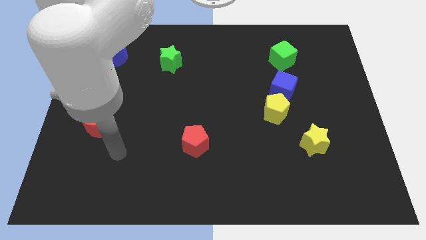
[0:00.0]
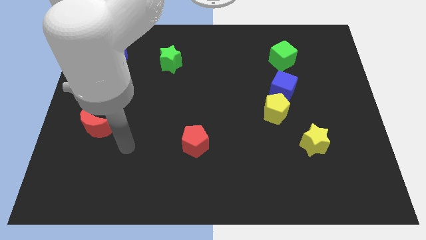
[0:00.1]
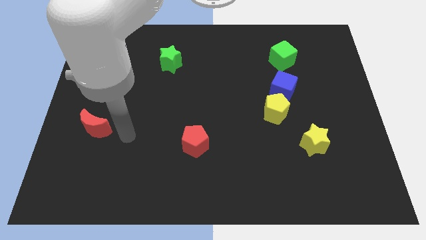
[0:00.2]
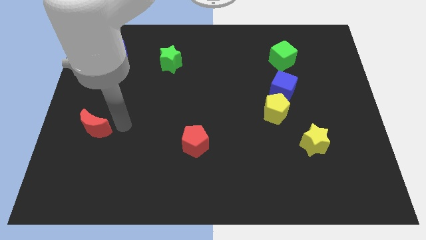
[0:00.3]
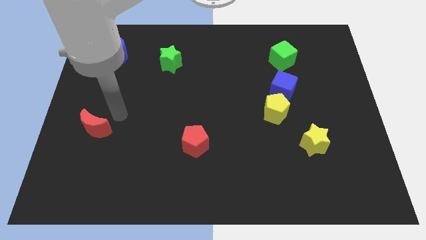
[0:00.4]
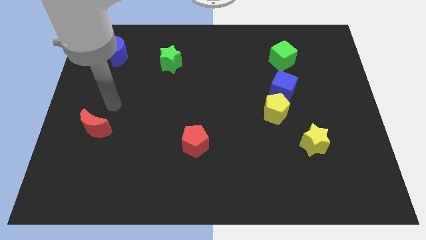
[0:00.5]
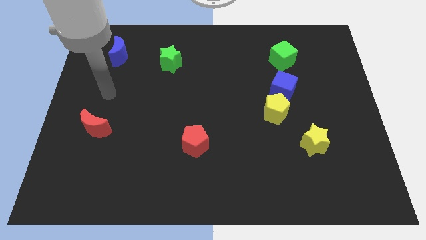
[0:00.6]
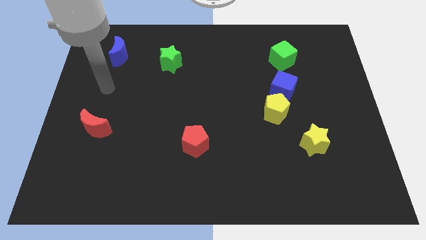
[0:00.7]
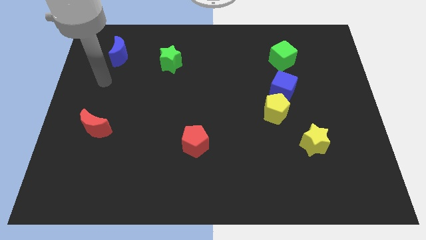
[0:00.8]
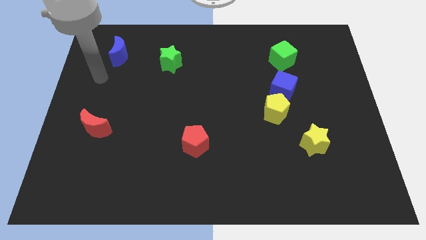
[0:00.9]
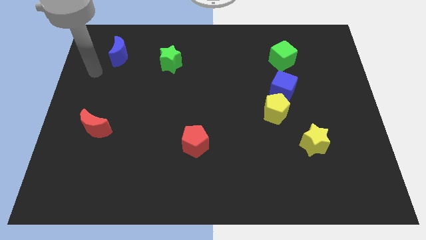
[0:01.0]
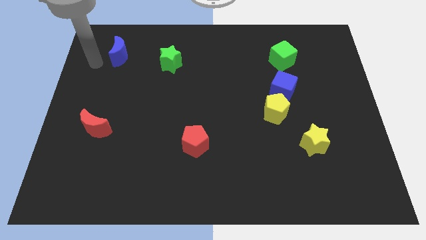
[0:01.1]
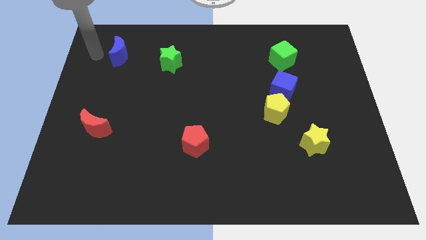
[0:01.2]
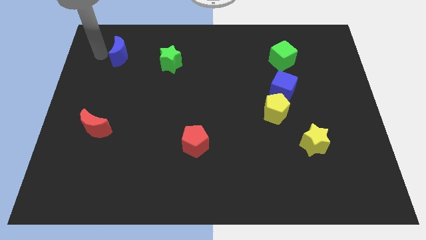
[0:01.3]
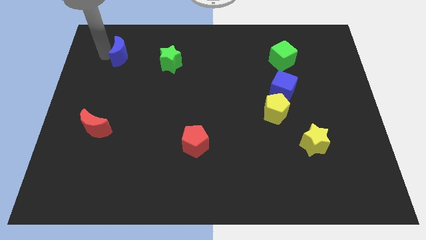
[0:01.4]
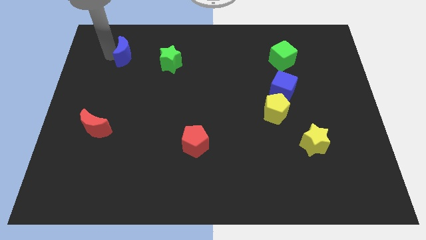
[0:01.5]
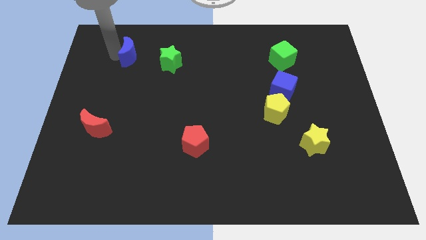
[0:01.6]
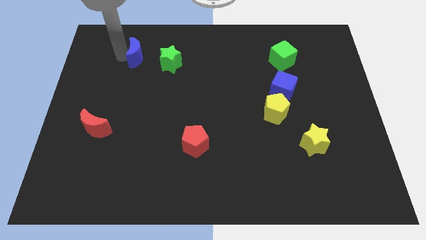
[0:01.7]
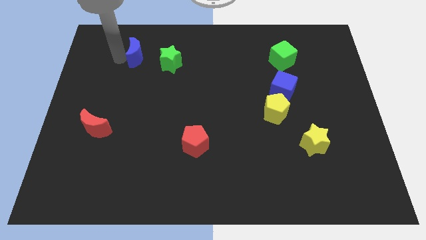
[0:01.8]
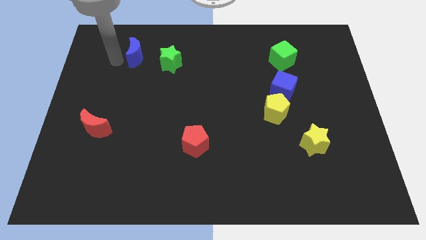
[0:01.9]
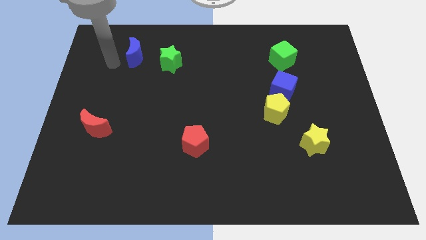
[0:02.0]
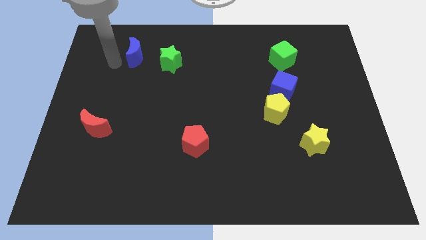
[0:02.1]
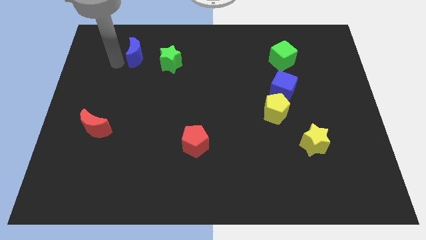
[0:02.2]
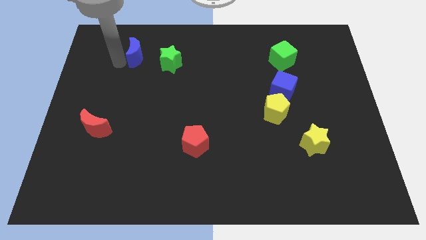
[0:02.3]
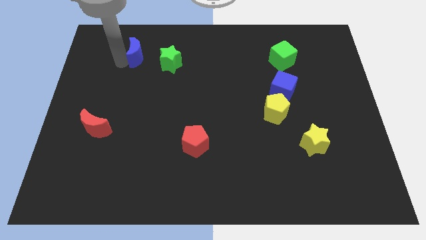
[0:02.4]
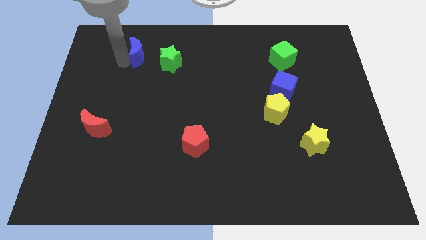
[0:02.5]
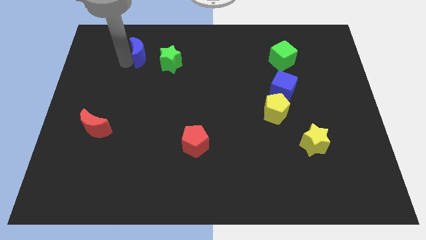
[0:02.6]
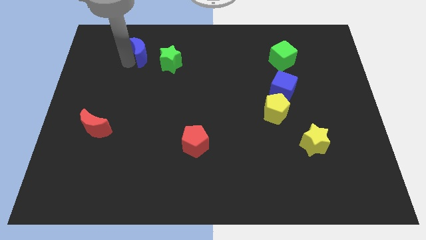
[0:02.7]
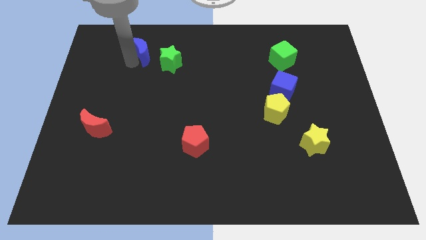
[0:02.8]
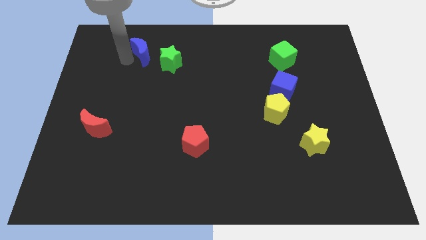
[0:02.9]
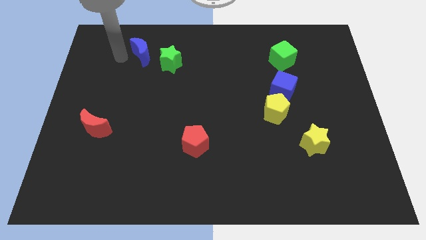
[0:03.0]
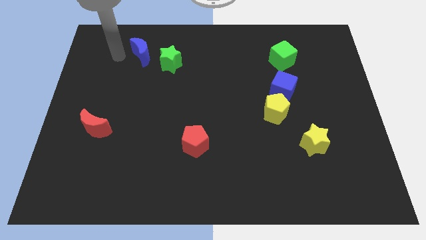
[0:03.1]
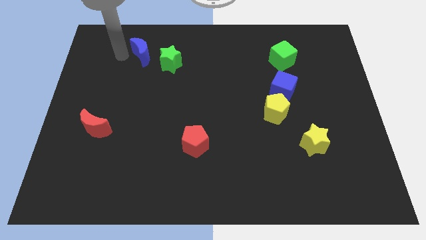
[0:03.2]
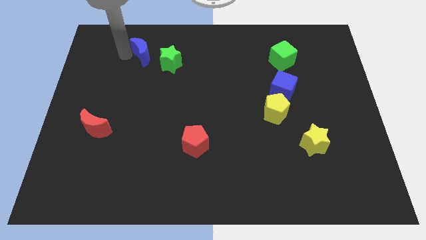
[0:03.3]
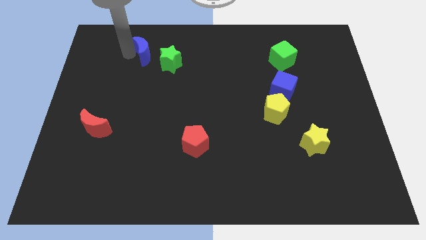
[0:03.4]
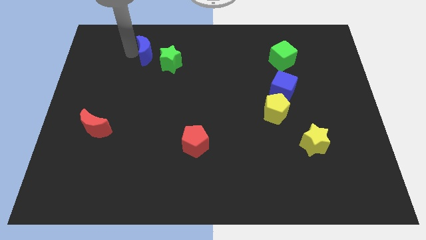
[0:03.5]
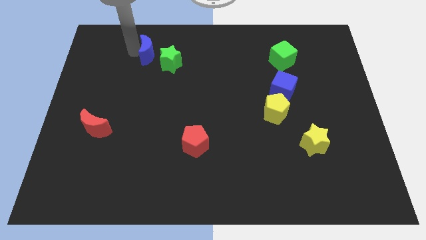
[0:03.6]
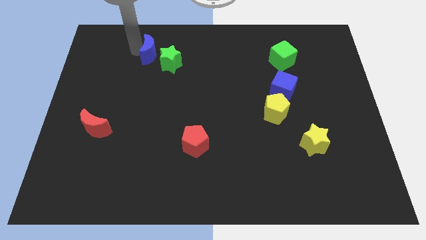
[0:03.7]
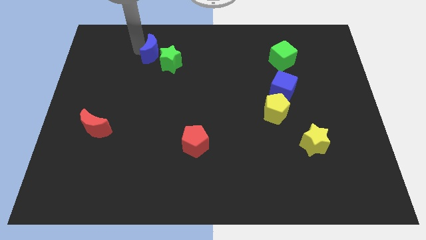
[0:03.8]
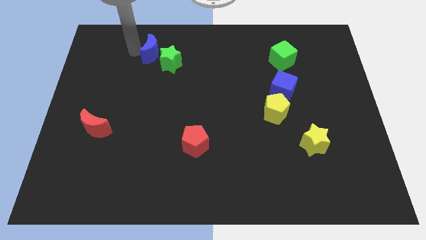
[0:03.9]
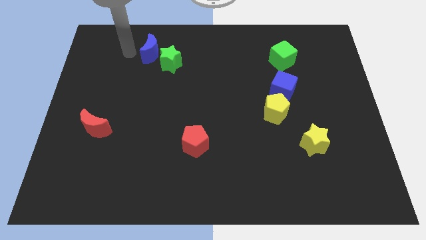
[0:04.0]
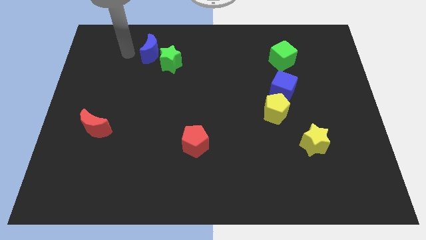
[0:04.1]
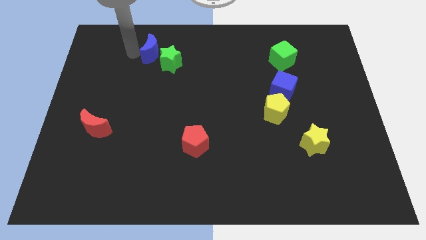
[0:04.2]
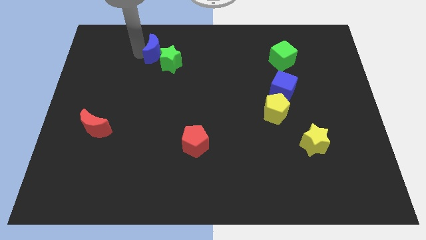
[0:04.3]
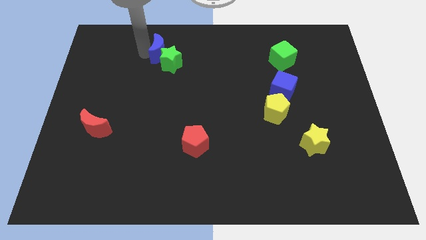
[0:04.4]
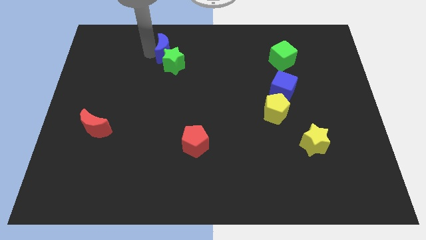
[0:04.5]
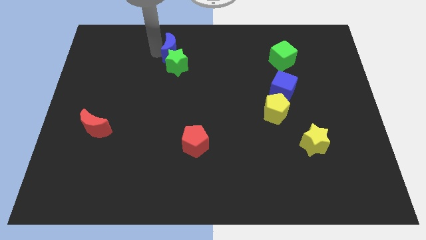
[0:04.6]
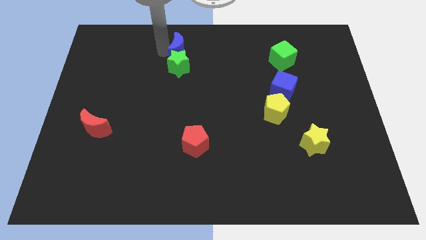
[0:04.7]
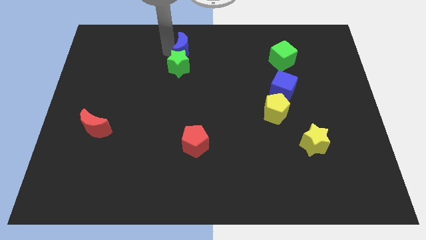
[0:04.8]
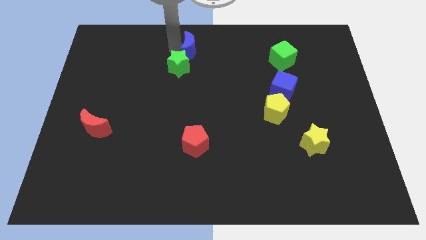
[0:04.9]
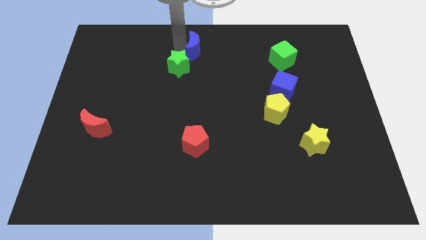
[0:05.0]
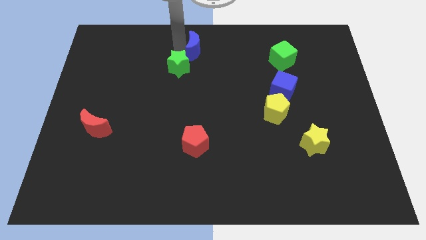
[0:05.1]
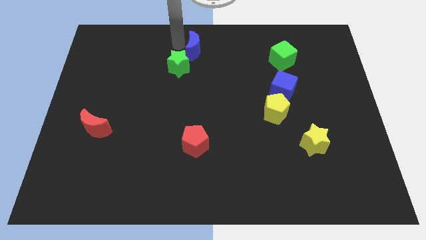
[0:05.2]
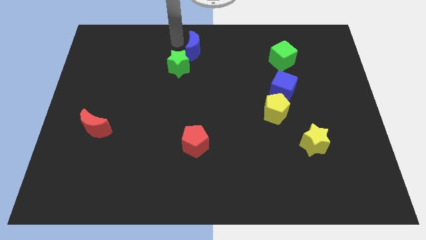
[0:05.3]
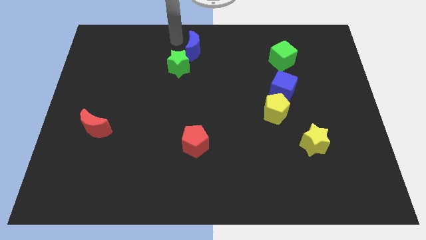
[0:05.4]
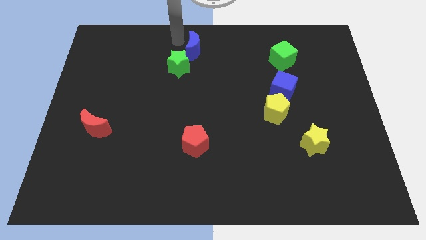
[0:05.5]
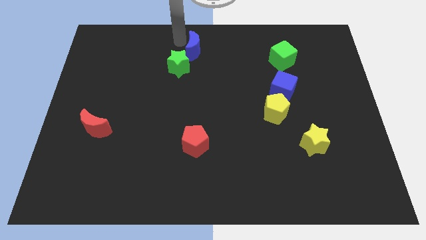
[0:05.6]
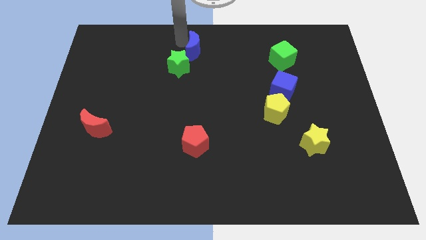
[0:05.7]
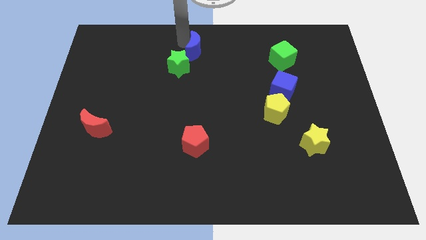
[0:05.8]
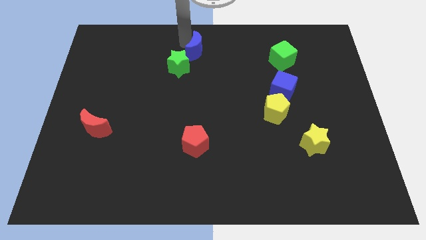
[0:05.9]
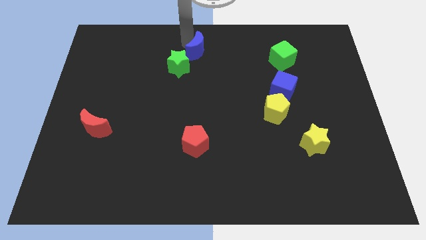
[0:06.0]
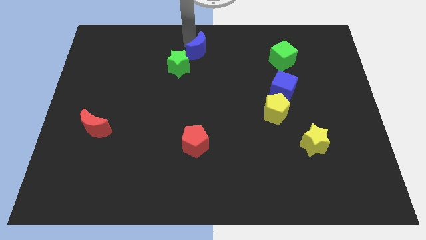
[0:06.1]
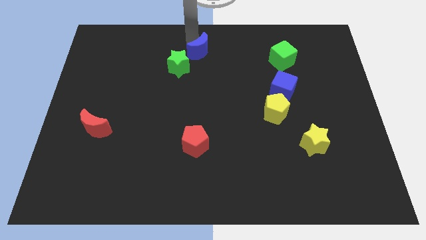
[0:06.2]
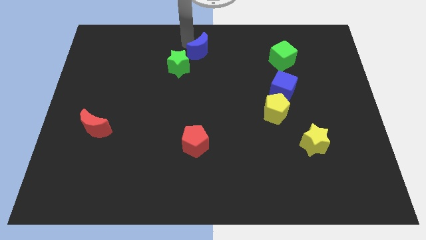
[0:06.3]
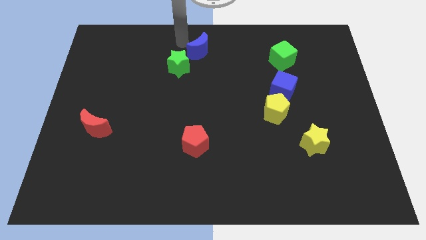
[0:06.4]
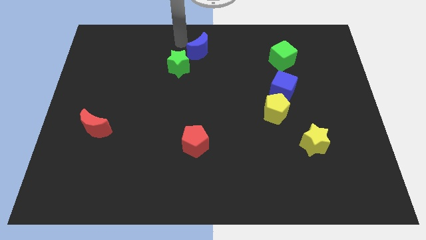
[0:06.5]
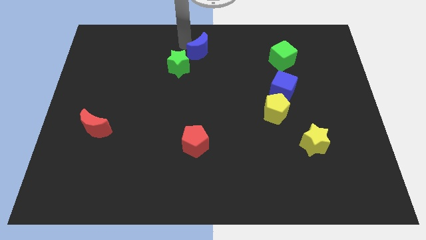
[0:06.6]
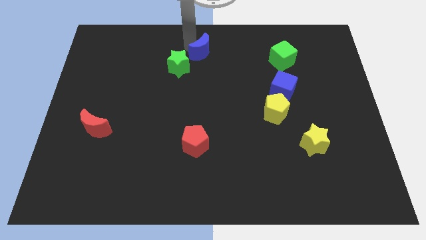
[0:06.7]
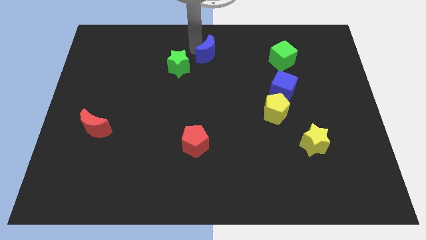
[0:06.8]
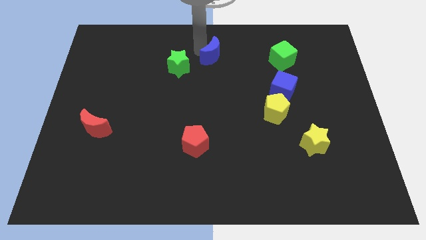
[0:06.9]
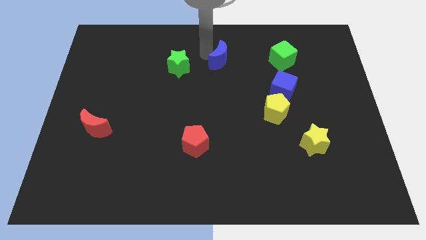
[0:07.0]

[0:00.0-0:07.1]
put the blue moon left of the green cube
